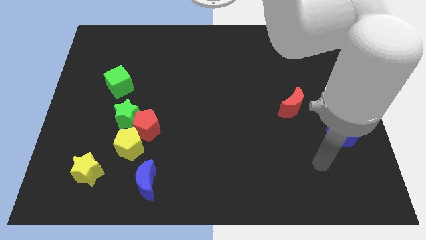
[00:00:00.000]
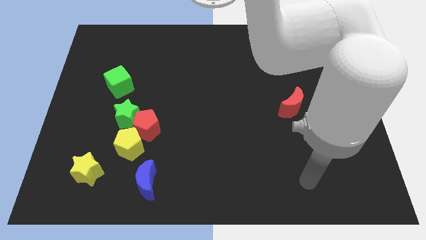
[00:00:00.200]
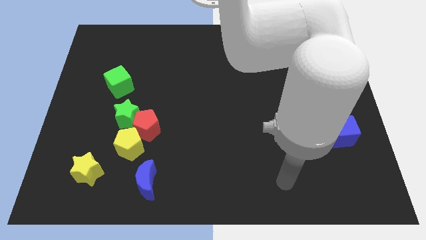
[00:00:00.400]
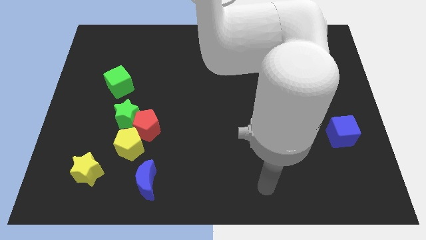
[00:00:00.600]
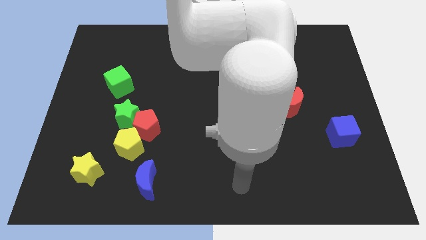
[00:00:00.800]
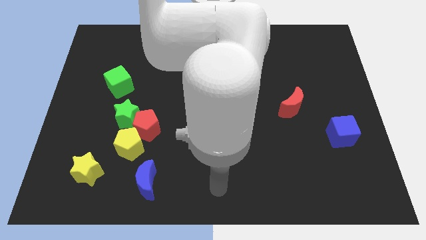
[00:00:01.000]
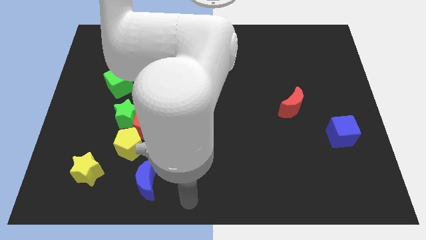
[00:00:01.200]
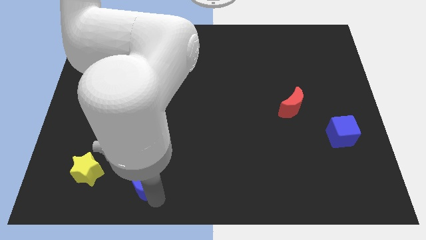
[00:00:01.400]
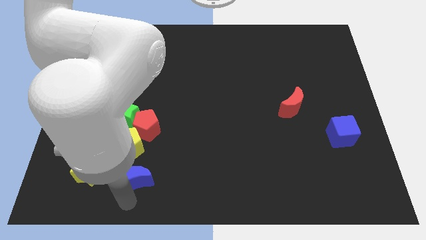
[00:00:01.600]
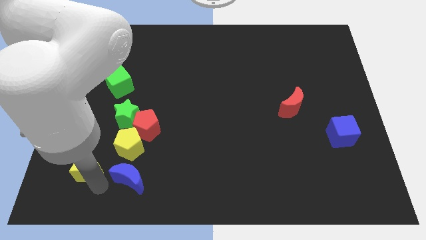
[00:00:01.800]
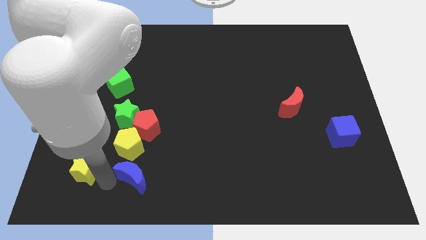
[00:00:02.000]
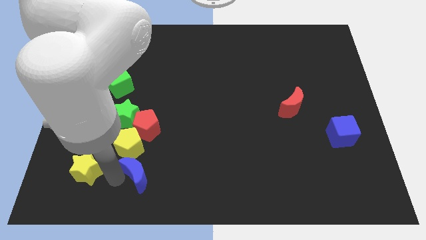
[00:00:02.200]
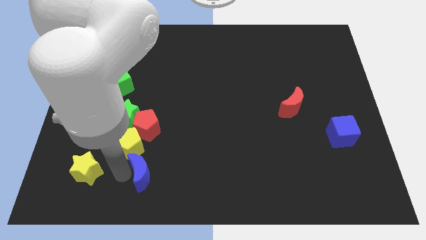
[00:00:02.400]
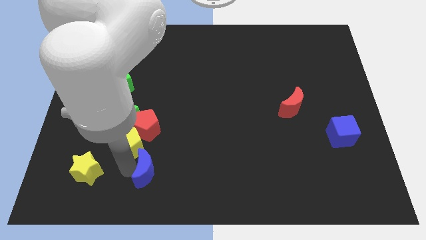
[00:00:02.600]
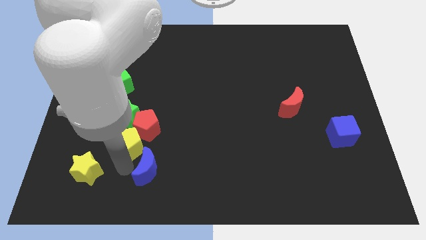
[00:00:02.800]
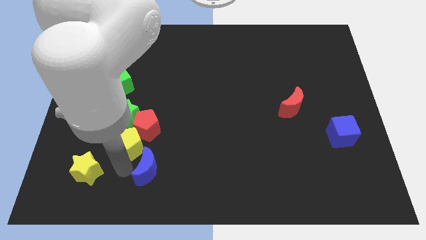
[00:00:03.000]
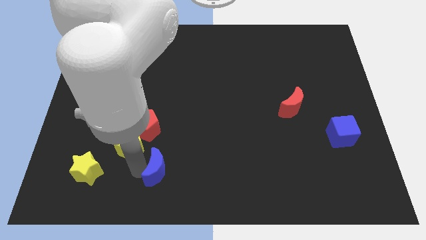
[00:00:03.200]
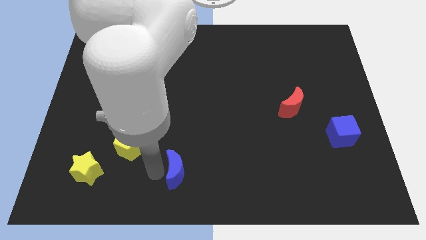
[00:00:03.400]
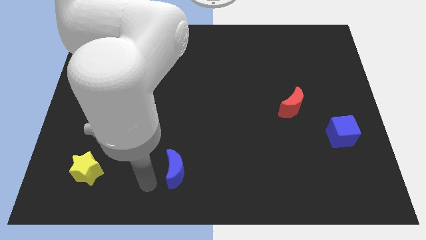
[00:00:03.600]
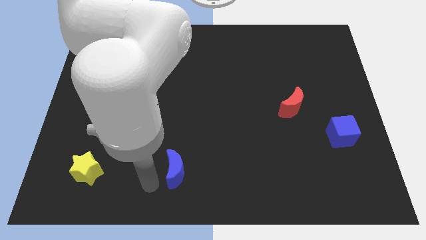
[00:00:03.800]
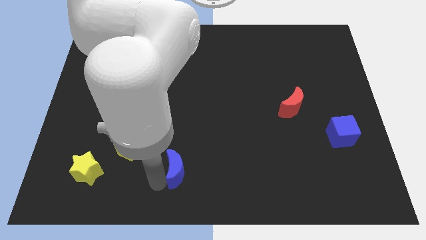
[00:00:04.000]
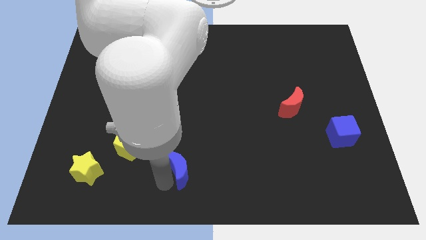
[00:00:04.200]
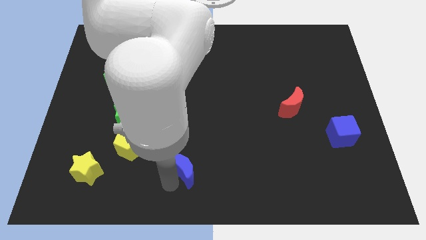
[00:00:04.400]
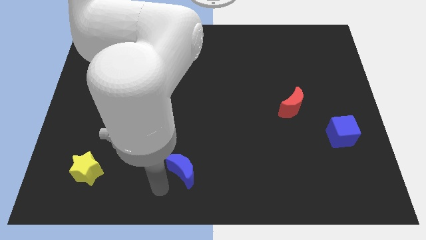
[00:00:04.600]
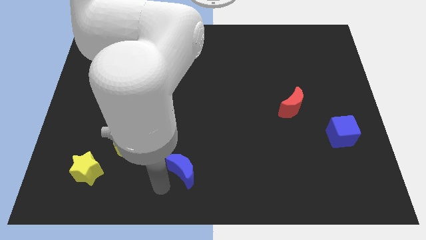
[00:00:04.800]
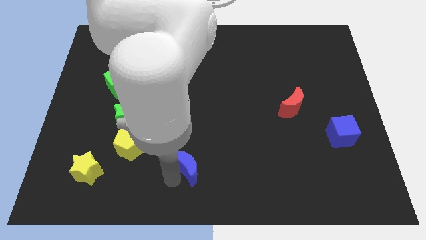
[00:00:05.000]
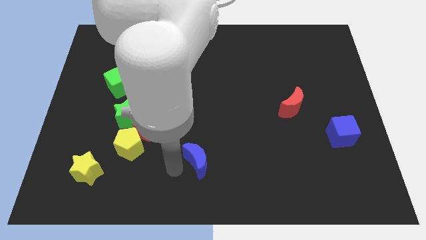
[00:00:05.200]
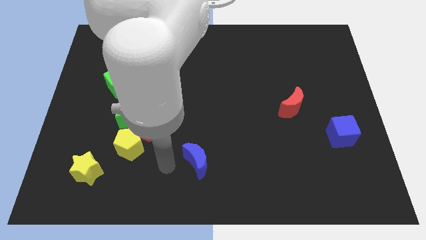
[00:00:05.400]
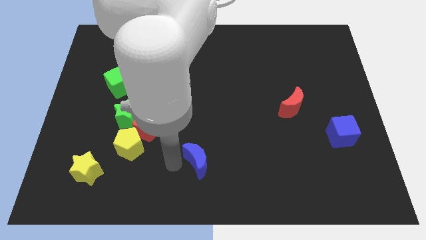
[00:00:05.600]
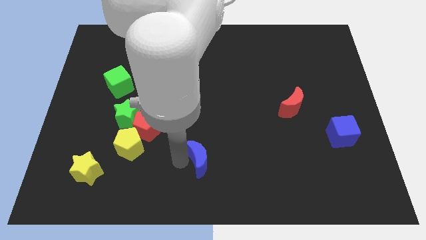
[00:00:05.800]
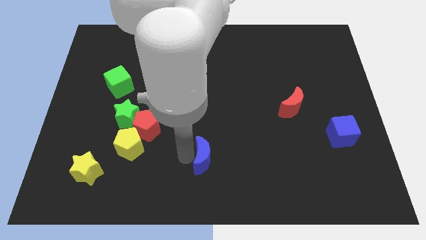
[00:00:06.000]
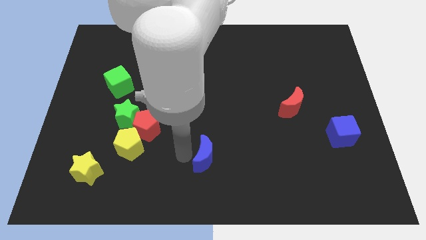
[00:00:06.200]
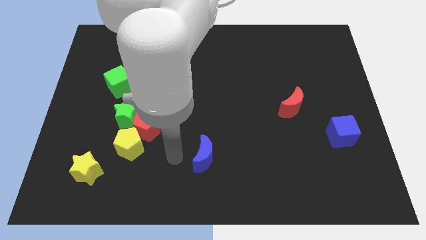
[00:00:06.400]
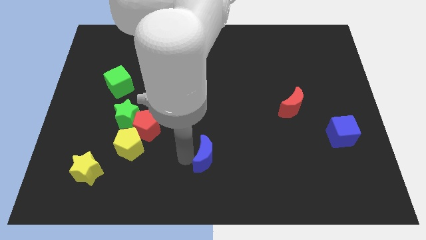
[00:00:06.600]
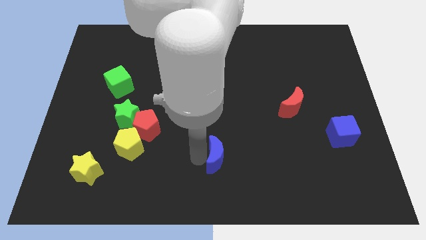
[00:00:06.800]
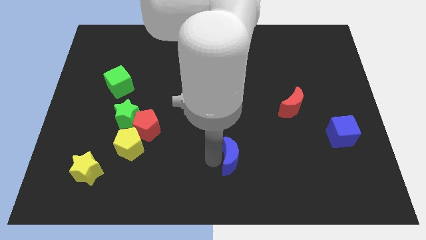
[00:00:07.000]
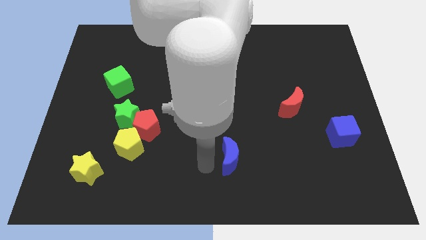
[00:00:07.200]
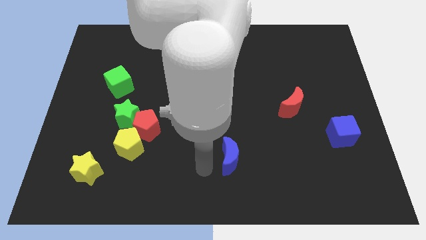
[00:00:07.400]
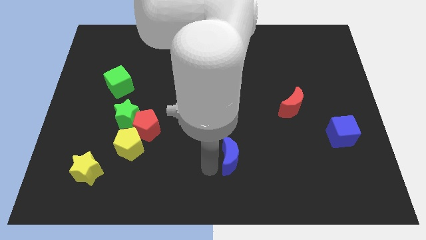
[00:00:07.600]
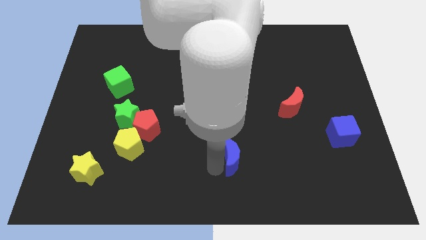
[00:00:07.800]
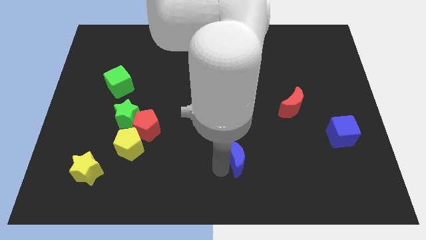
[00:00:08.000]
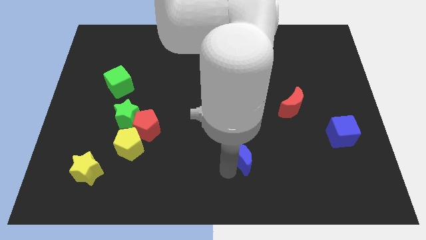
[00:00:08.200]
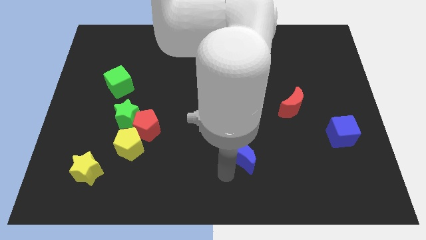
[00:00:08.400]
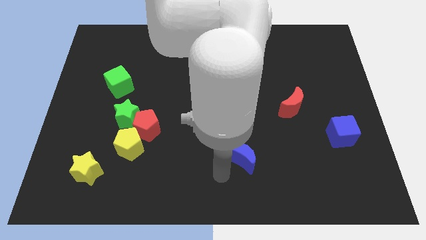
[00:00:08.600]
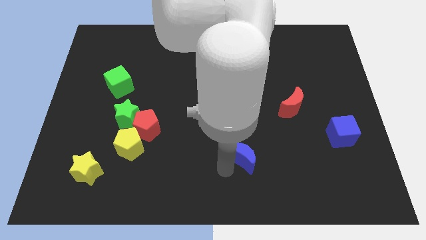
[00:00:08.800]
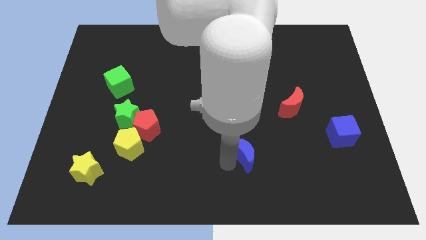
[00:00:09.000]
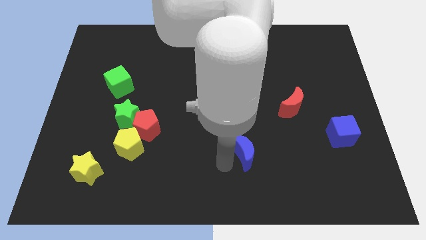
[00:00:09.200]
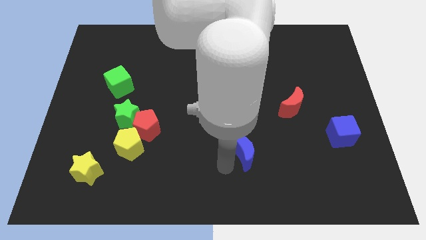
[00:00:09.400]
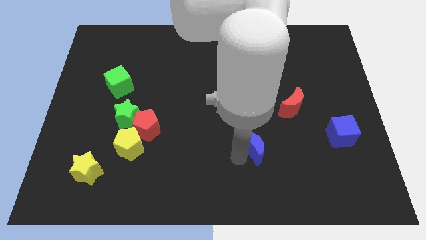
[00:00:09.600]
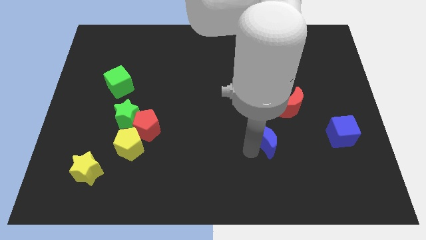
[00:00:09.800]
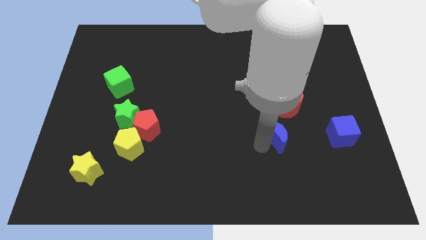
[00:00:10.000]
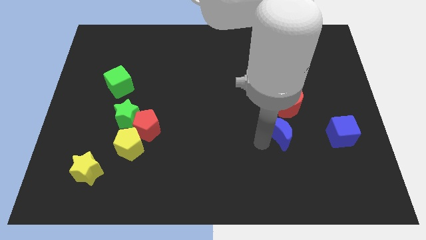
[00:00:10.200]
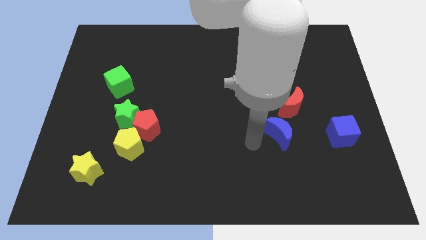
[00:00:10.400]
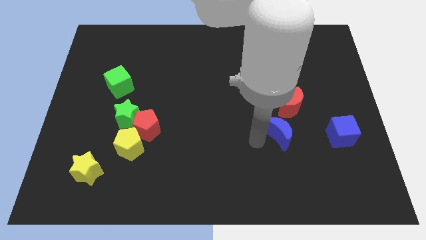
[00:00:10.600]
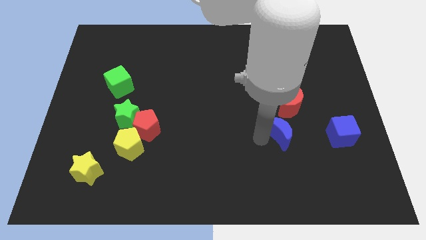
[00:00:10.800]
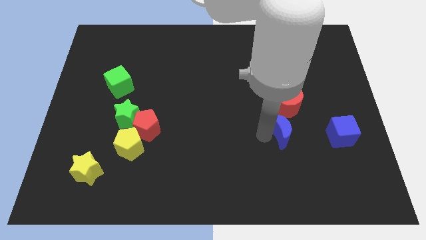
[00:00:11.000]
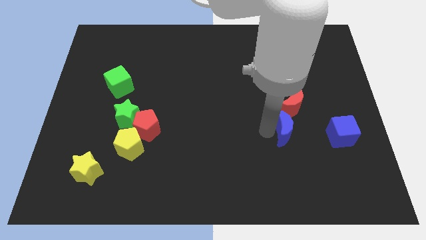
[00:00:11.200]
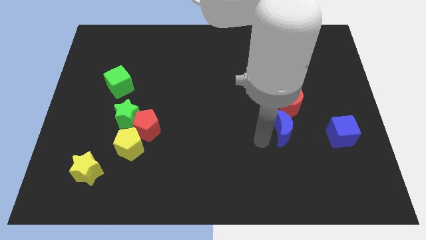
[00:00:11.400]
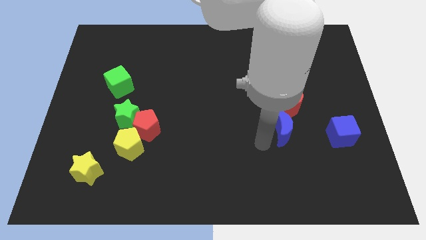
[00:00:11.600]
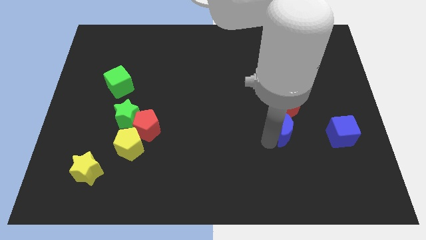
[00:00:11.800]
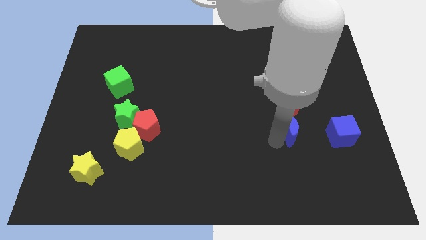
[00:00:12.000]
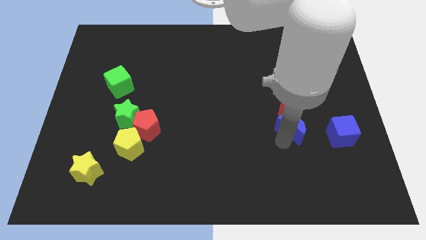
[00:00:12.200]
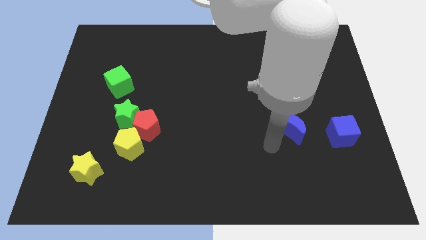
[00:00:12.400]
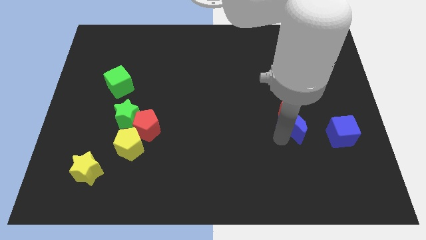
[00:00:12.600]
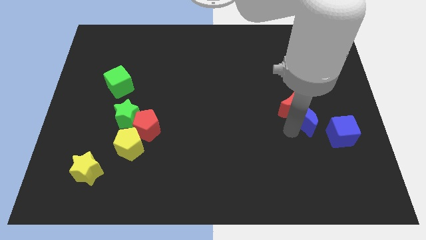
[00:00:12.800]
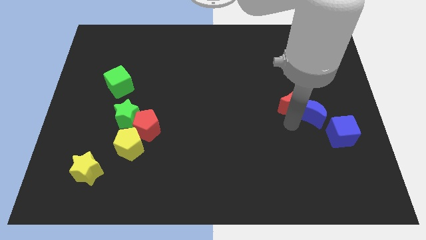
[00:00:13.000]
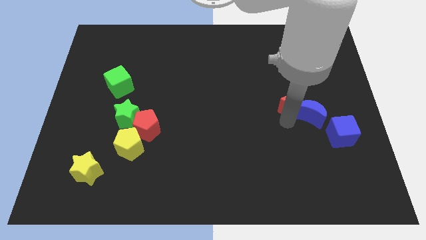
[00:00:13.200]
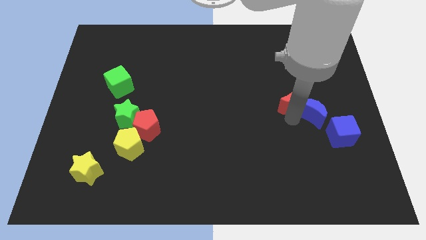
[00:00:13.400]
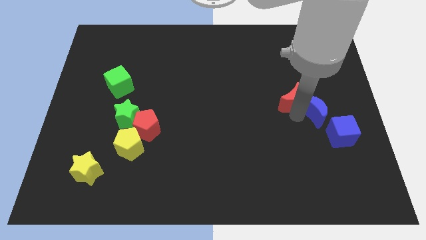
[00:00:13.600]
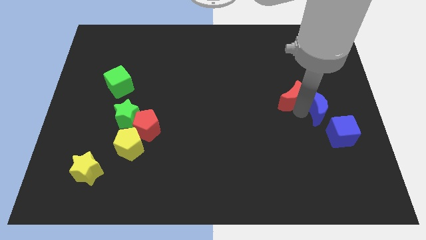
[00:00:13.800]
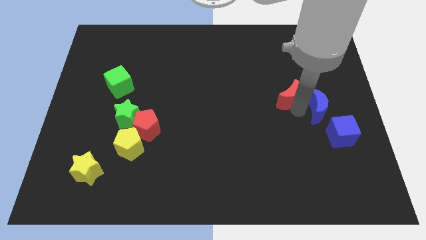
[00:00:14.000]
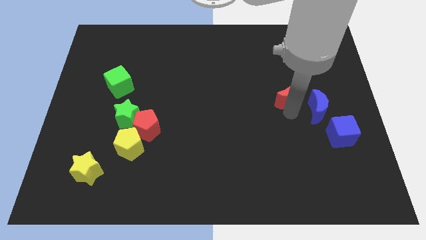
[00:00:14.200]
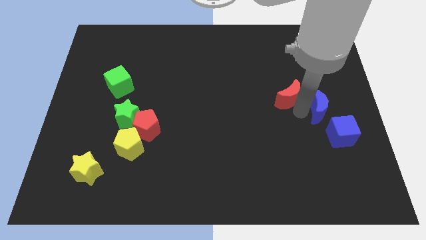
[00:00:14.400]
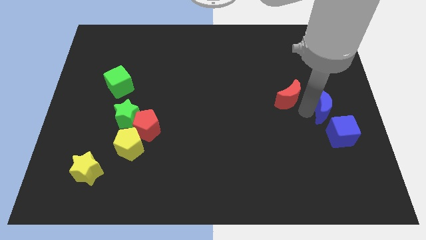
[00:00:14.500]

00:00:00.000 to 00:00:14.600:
slide the blue moon to the center right
